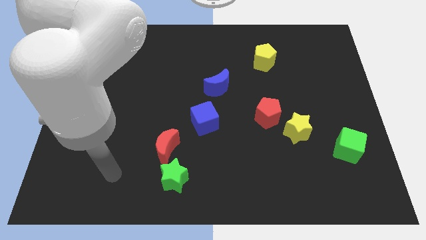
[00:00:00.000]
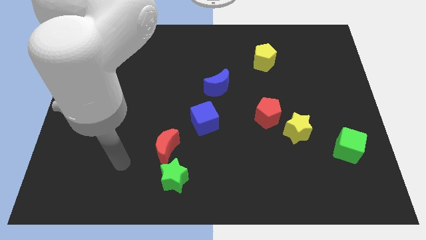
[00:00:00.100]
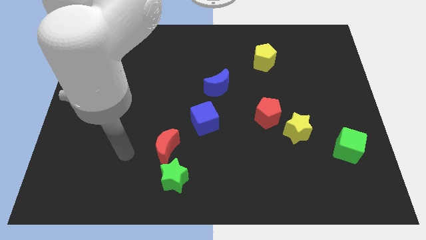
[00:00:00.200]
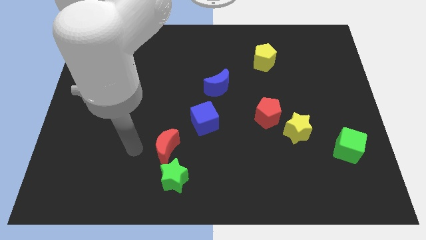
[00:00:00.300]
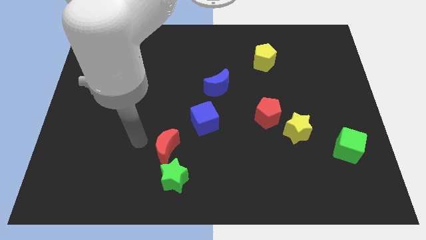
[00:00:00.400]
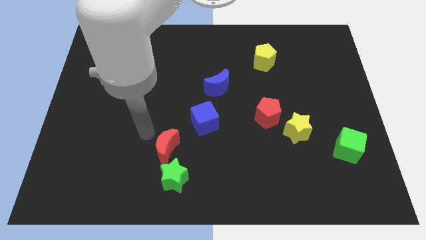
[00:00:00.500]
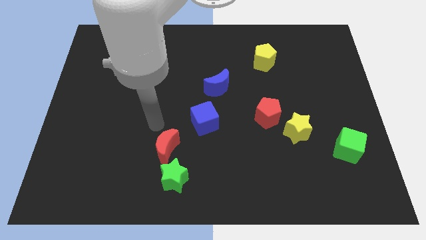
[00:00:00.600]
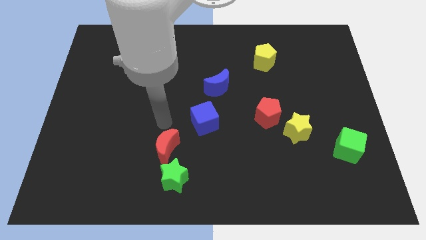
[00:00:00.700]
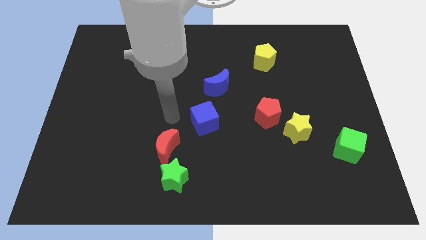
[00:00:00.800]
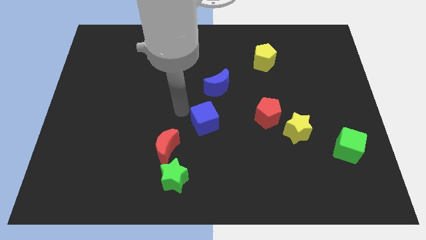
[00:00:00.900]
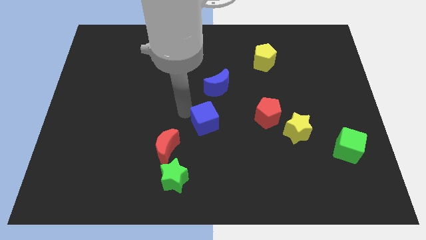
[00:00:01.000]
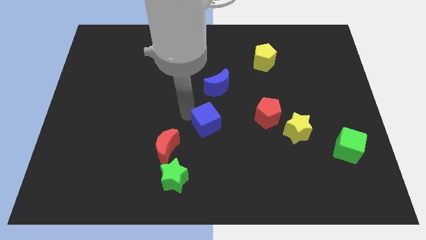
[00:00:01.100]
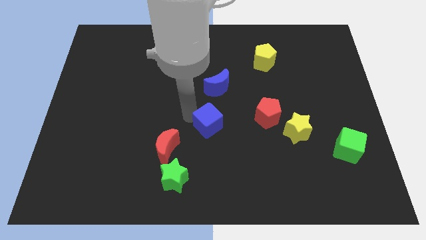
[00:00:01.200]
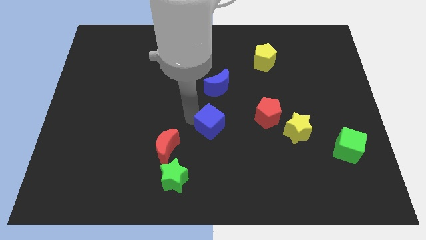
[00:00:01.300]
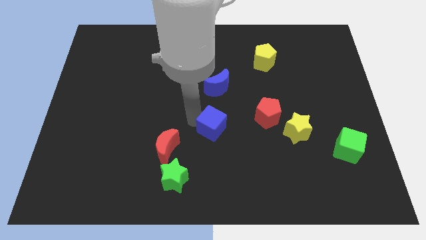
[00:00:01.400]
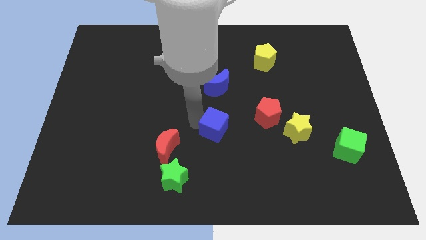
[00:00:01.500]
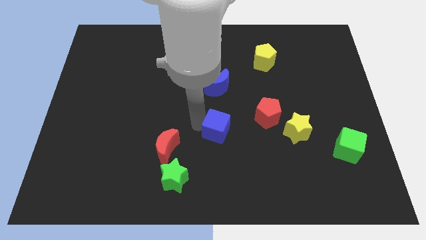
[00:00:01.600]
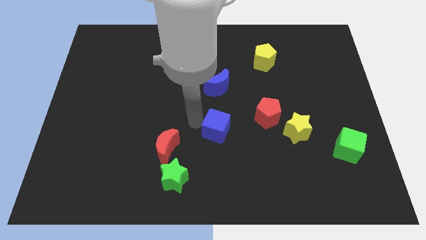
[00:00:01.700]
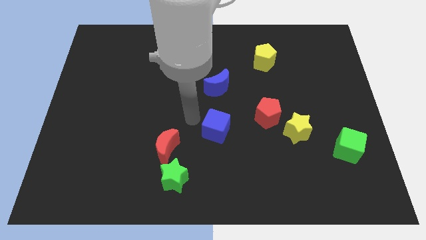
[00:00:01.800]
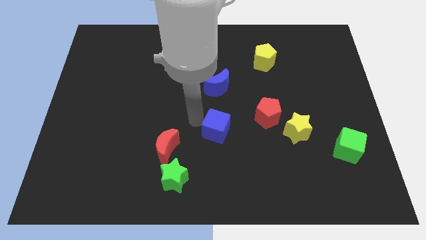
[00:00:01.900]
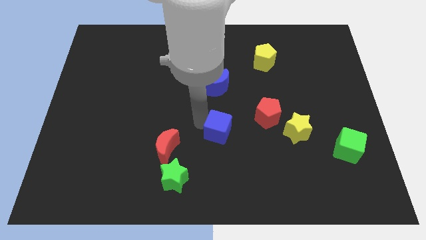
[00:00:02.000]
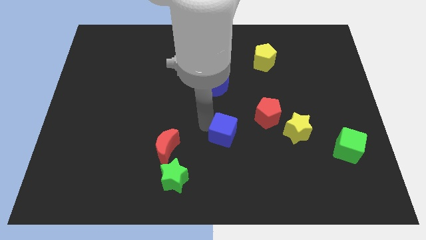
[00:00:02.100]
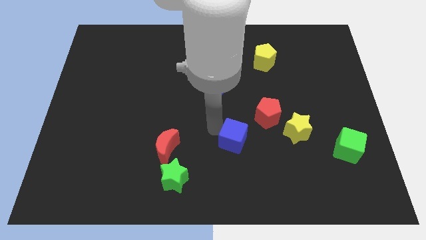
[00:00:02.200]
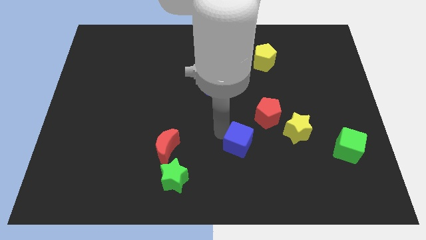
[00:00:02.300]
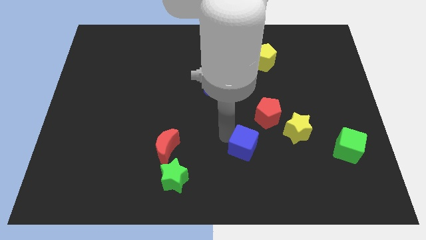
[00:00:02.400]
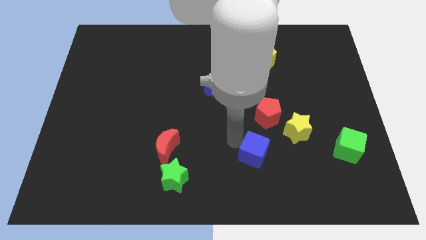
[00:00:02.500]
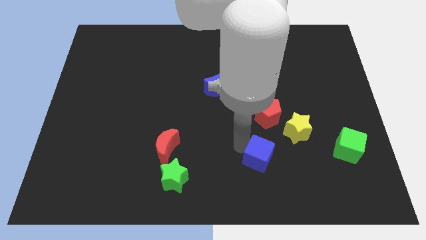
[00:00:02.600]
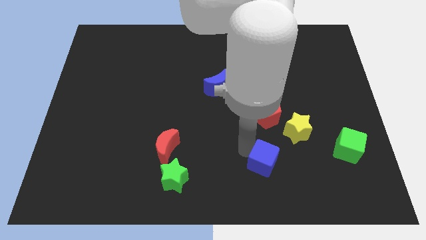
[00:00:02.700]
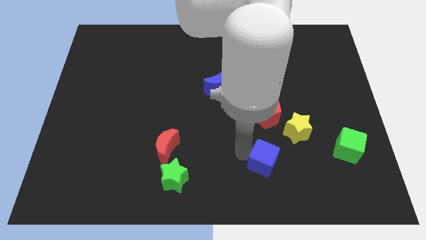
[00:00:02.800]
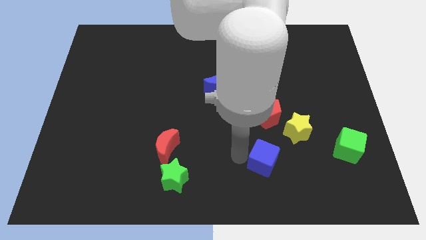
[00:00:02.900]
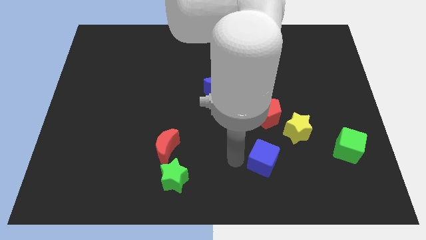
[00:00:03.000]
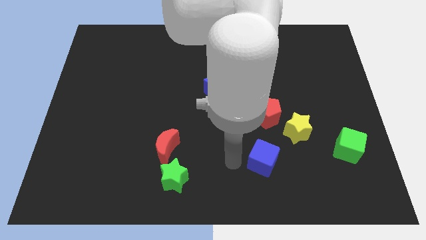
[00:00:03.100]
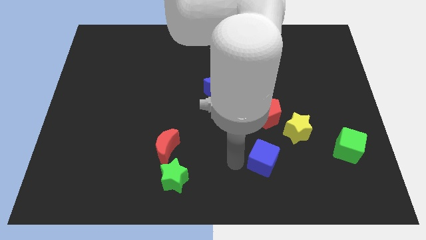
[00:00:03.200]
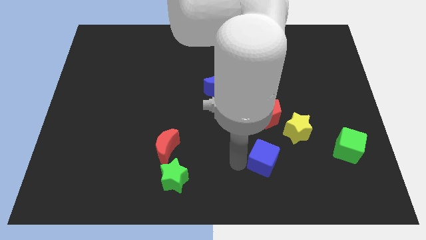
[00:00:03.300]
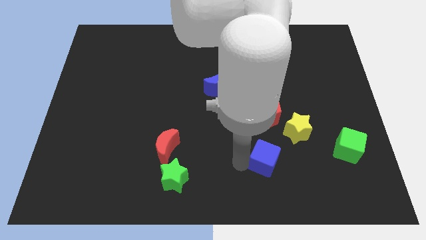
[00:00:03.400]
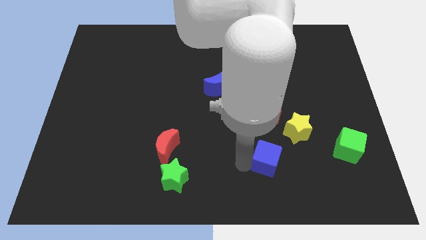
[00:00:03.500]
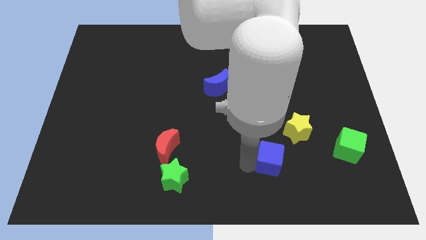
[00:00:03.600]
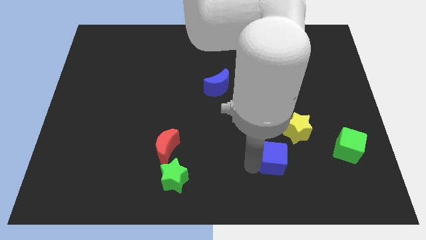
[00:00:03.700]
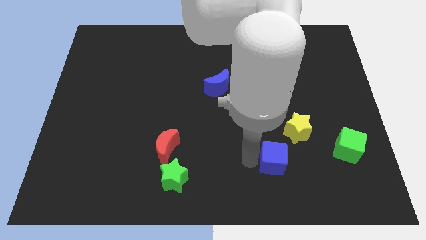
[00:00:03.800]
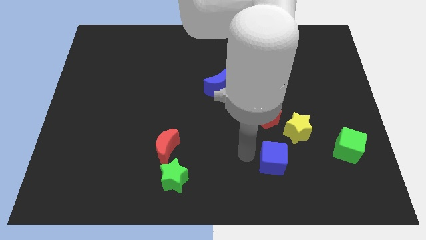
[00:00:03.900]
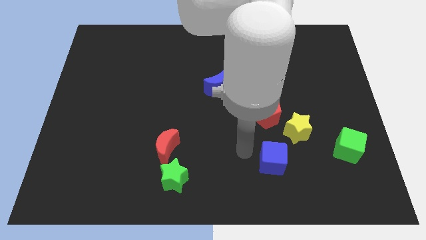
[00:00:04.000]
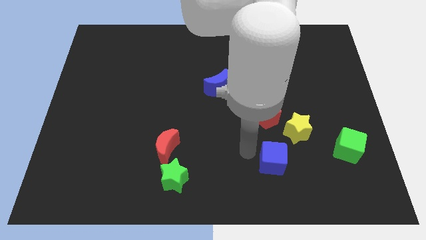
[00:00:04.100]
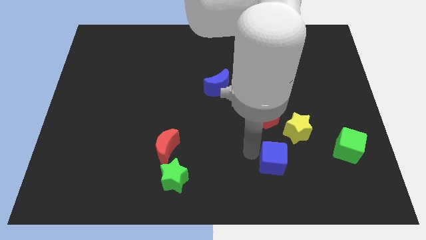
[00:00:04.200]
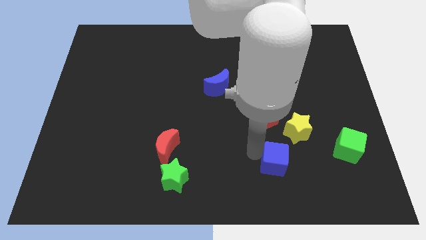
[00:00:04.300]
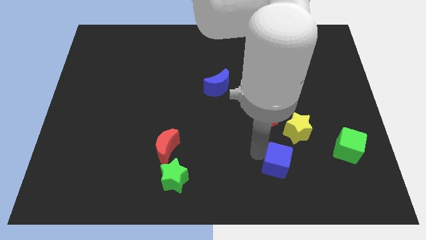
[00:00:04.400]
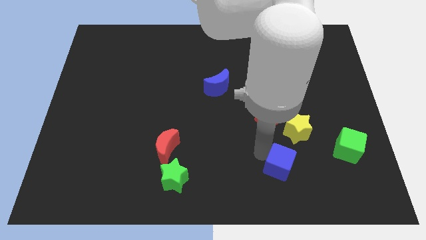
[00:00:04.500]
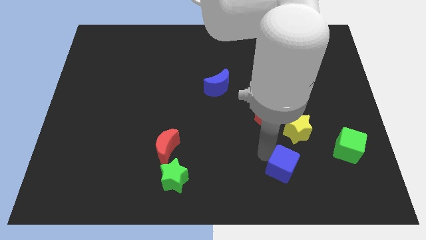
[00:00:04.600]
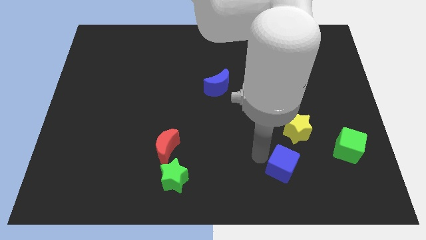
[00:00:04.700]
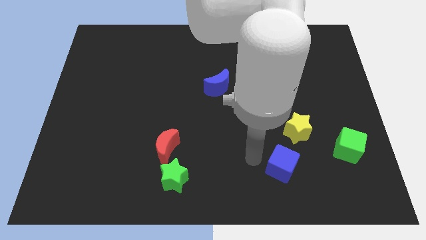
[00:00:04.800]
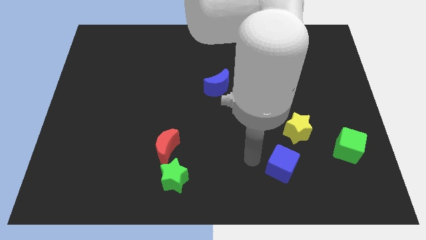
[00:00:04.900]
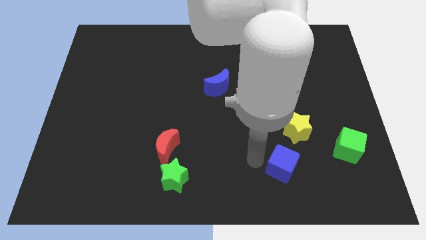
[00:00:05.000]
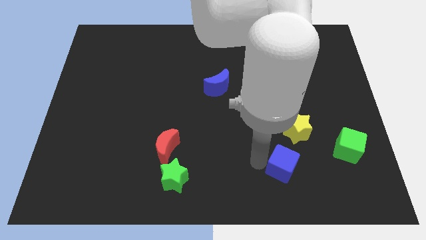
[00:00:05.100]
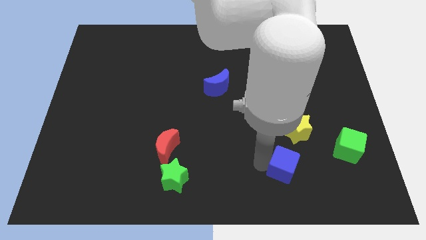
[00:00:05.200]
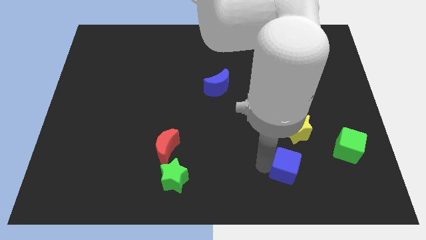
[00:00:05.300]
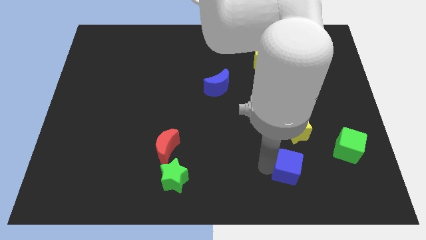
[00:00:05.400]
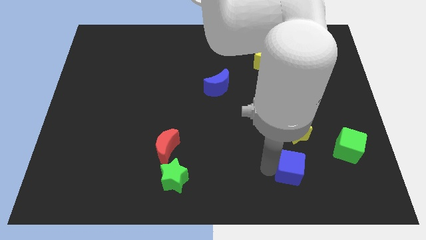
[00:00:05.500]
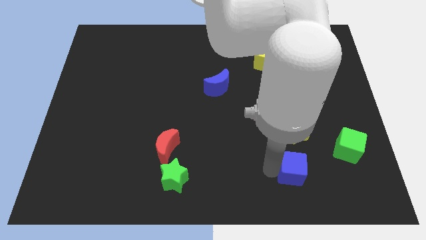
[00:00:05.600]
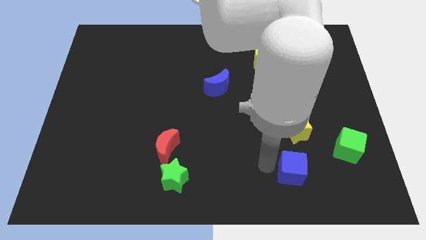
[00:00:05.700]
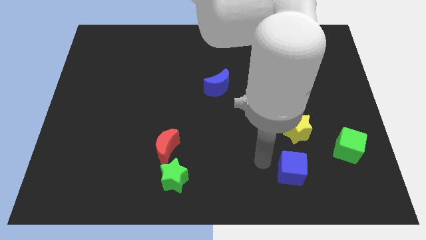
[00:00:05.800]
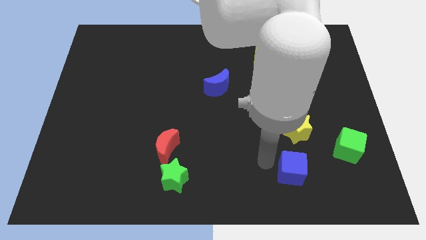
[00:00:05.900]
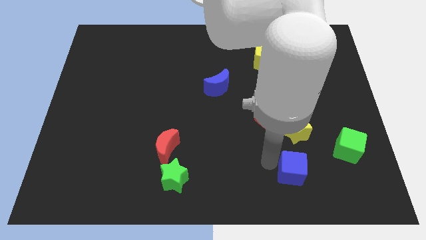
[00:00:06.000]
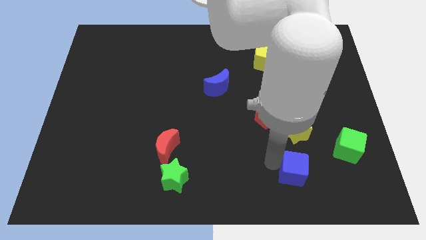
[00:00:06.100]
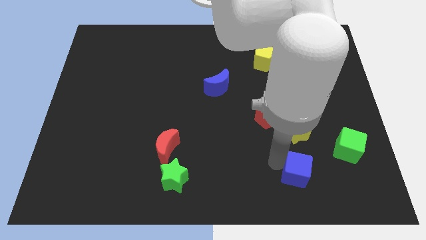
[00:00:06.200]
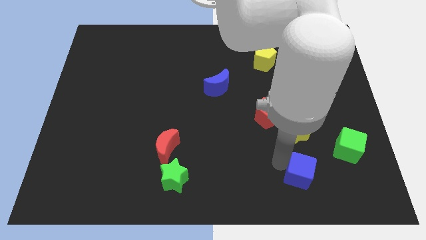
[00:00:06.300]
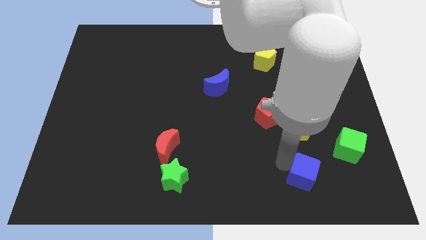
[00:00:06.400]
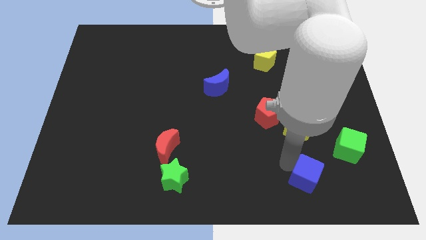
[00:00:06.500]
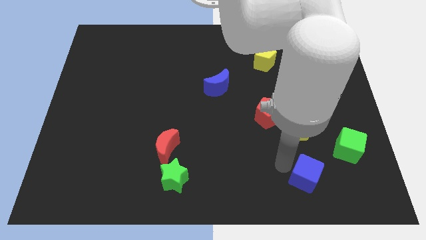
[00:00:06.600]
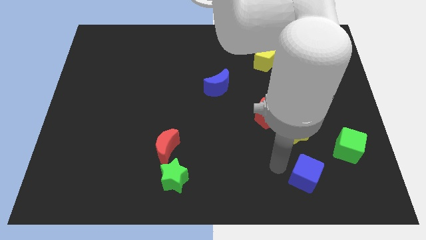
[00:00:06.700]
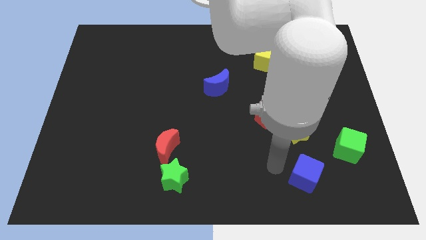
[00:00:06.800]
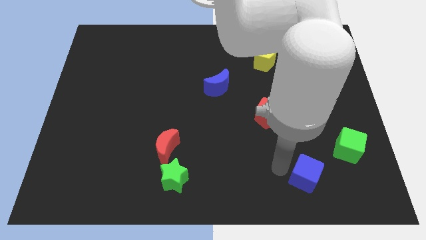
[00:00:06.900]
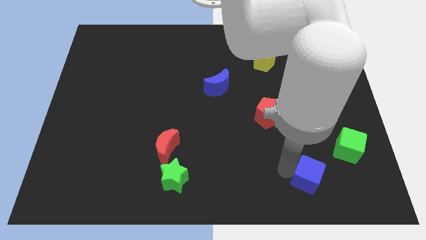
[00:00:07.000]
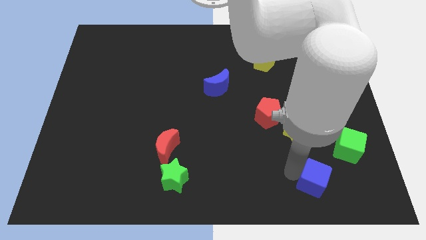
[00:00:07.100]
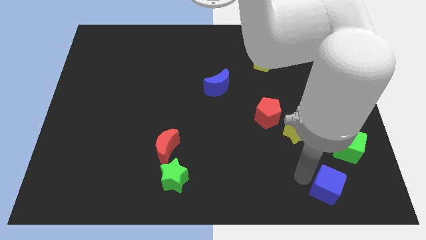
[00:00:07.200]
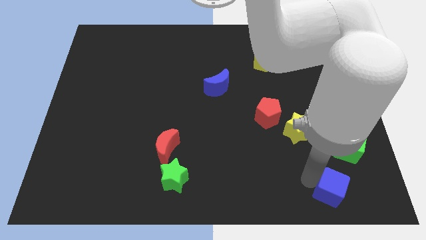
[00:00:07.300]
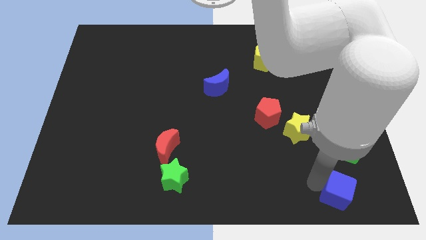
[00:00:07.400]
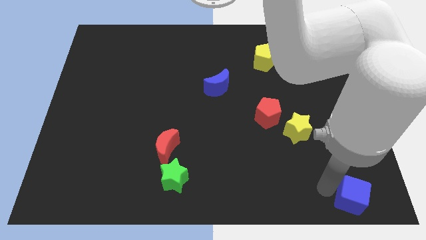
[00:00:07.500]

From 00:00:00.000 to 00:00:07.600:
push the blue cube to the lower right corner
